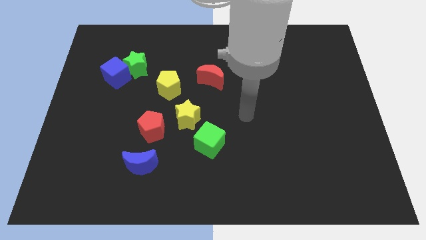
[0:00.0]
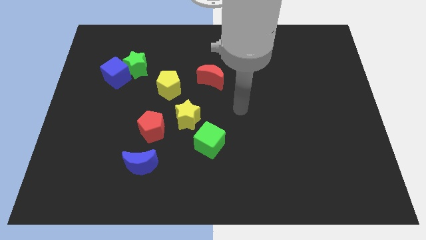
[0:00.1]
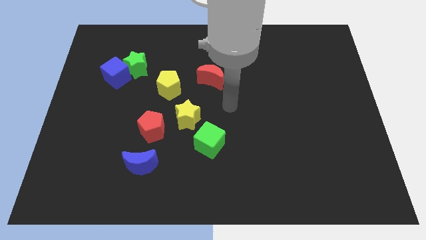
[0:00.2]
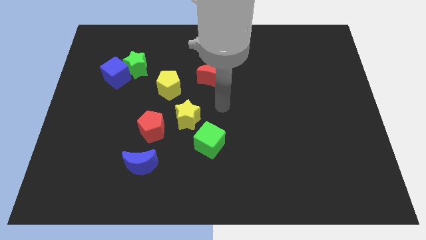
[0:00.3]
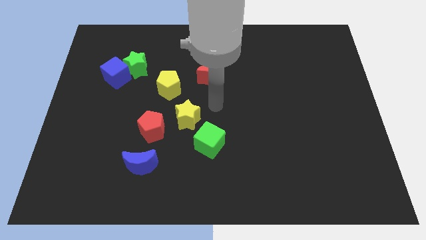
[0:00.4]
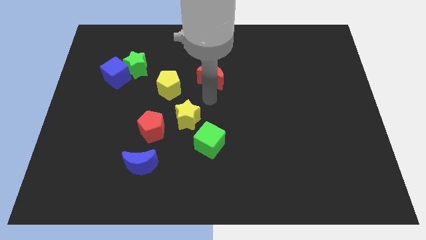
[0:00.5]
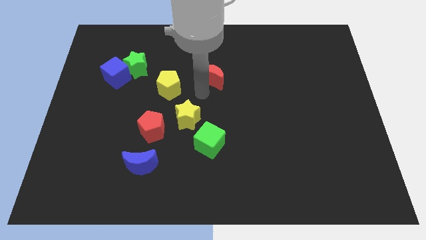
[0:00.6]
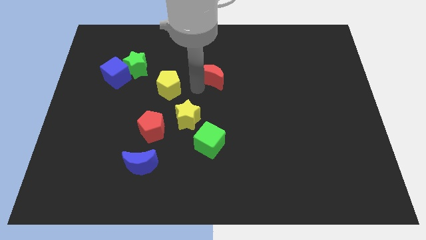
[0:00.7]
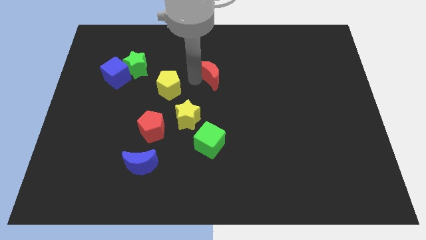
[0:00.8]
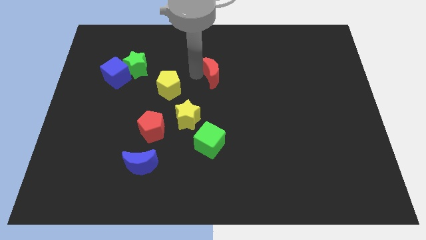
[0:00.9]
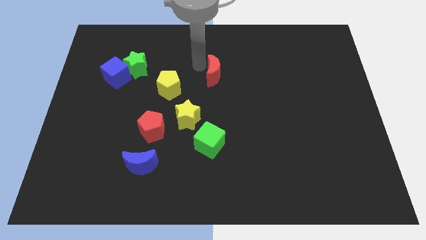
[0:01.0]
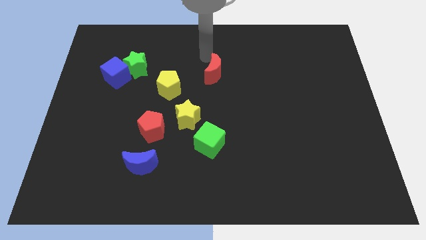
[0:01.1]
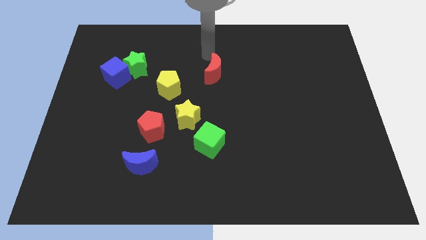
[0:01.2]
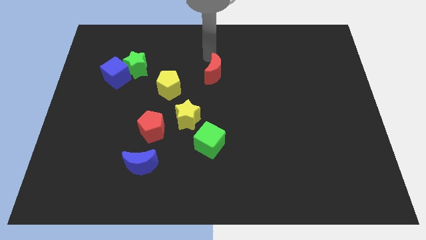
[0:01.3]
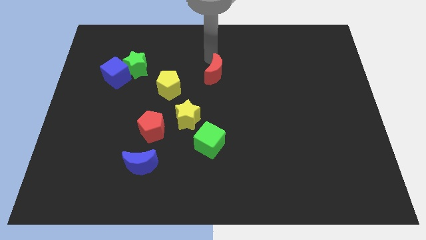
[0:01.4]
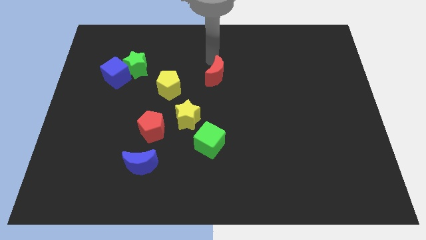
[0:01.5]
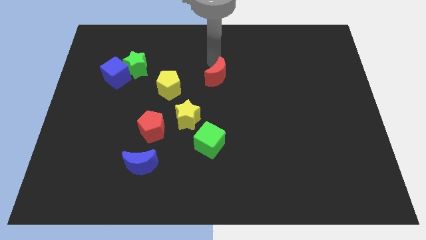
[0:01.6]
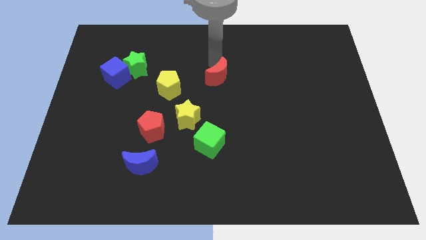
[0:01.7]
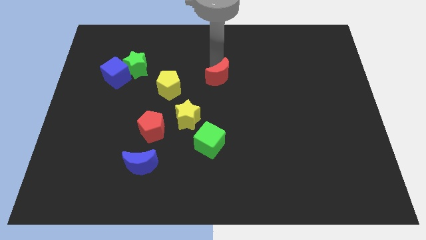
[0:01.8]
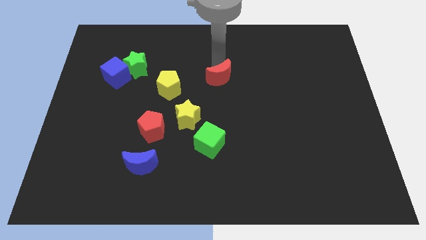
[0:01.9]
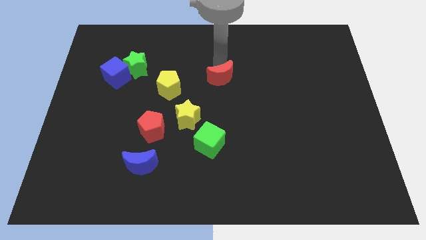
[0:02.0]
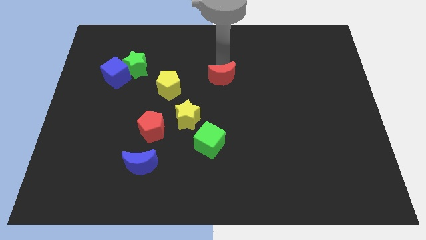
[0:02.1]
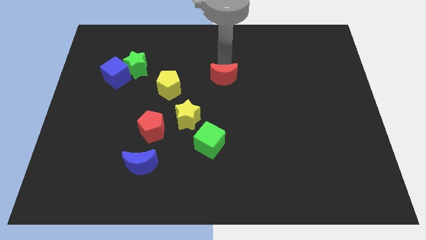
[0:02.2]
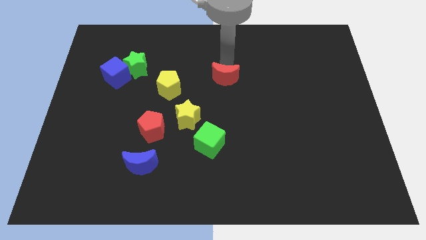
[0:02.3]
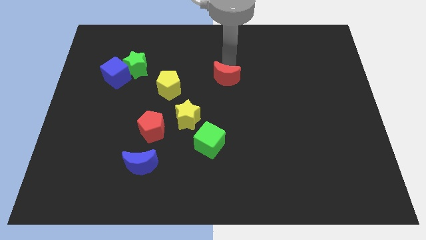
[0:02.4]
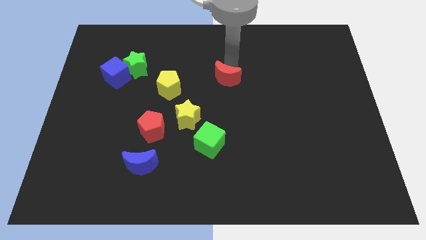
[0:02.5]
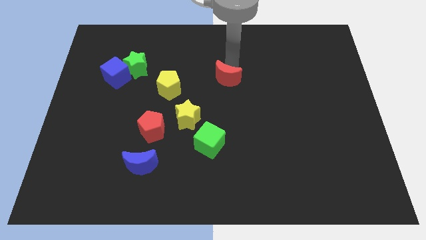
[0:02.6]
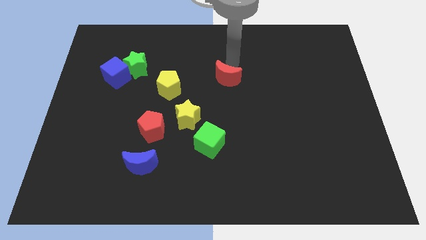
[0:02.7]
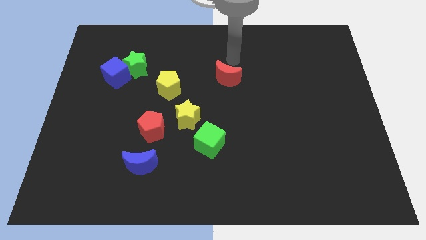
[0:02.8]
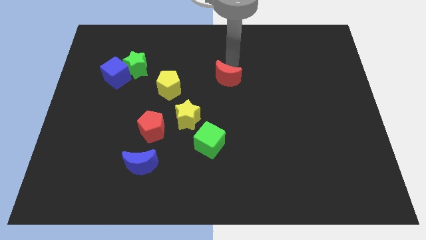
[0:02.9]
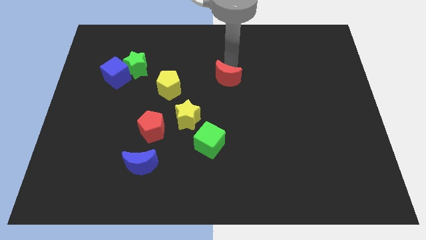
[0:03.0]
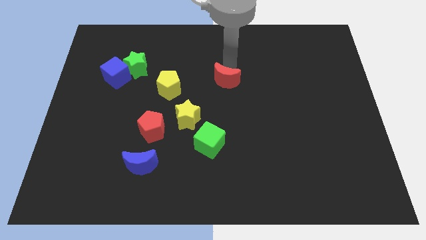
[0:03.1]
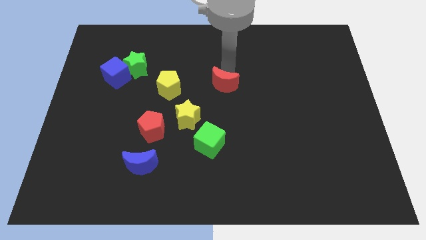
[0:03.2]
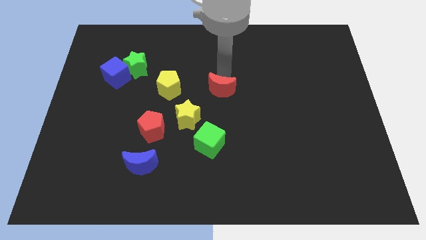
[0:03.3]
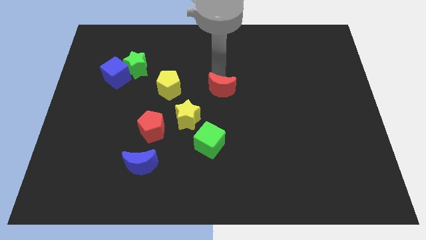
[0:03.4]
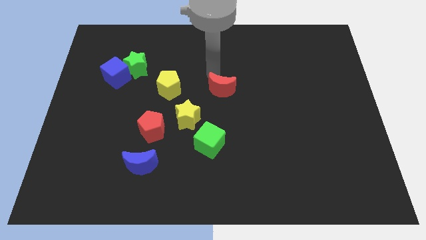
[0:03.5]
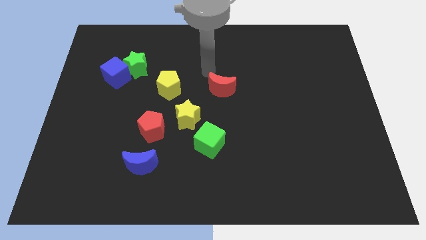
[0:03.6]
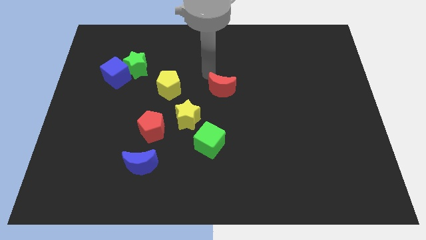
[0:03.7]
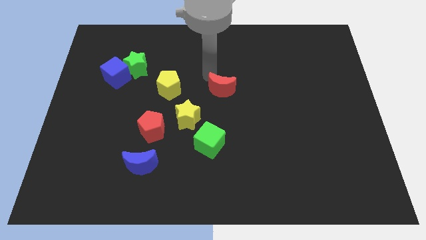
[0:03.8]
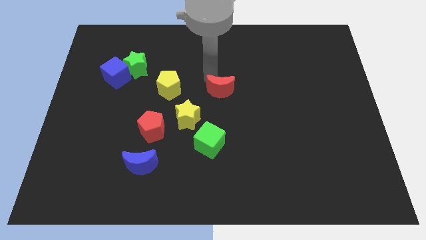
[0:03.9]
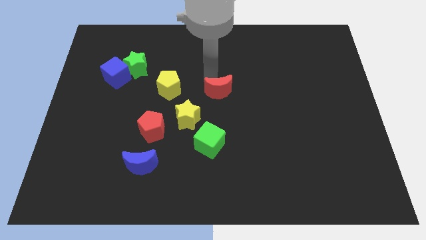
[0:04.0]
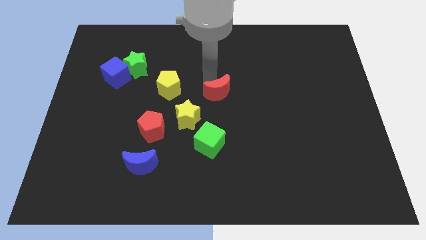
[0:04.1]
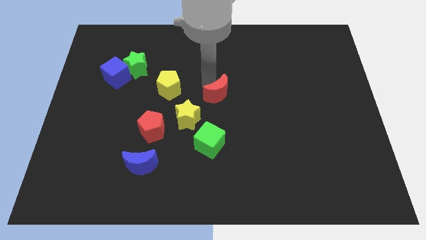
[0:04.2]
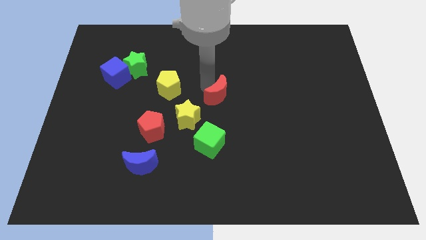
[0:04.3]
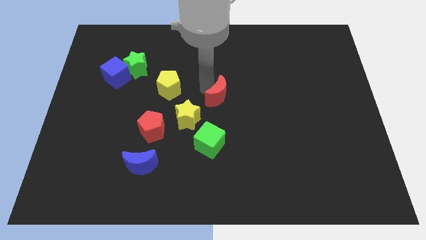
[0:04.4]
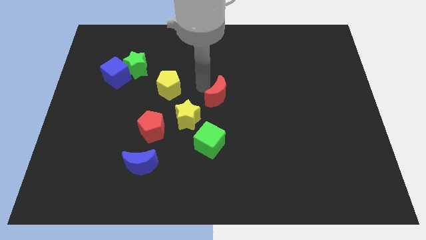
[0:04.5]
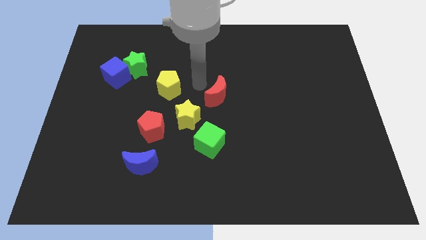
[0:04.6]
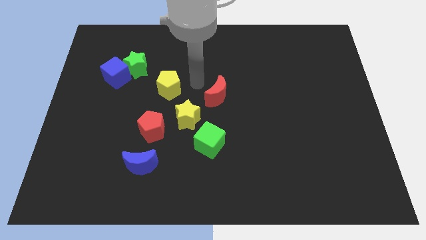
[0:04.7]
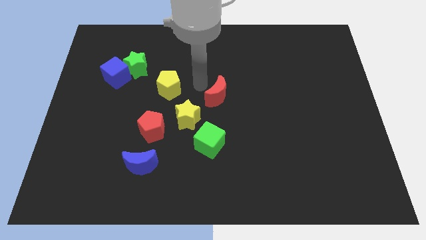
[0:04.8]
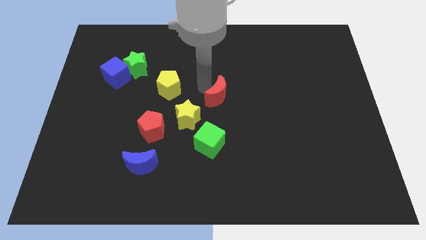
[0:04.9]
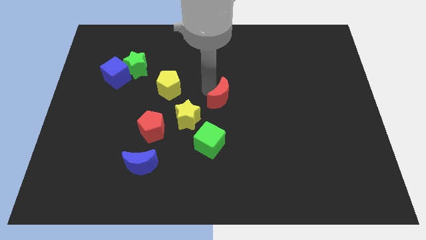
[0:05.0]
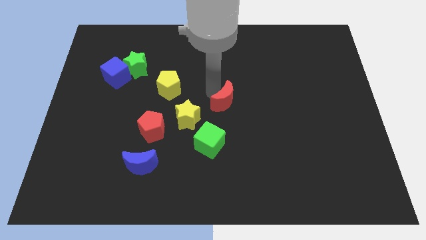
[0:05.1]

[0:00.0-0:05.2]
move the red moon a bit diagonally downwards and right

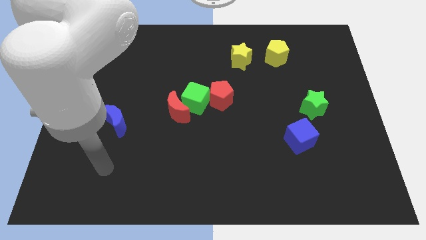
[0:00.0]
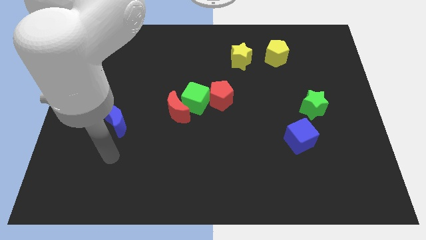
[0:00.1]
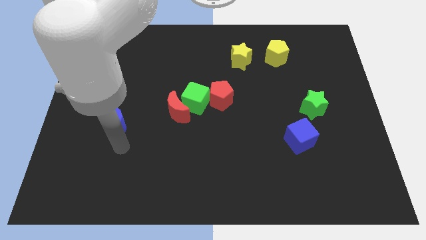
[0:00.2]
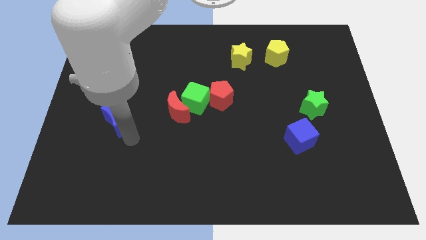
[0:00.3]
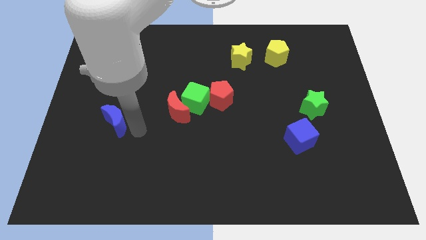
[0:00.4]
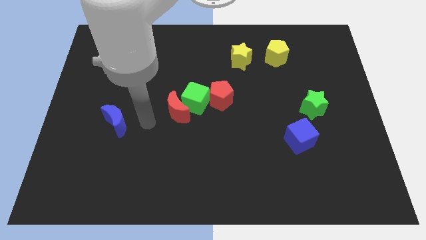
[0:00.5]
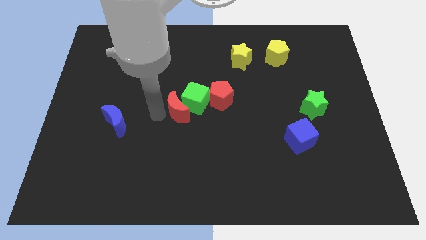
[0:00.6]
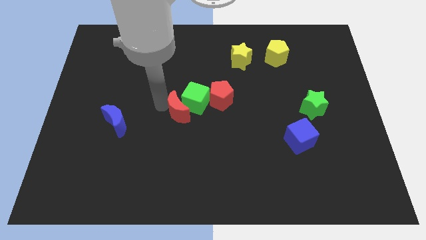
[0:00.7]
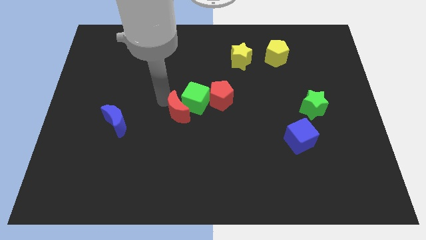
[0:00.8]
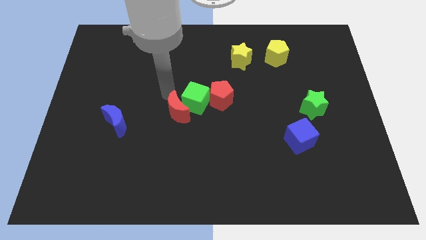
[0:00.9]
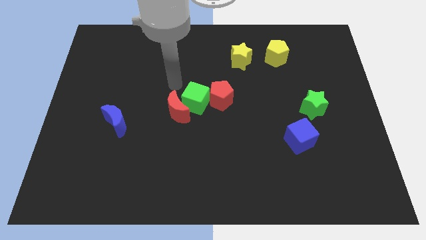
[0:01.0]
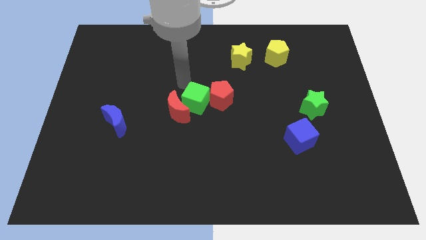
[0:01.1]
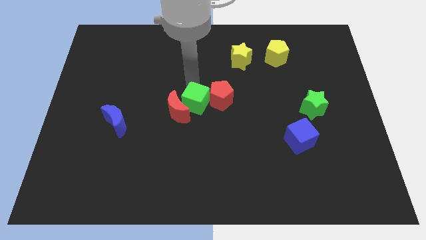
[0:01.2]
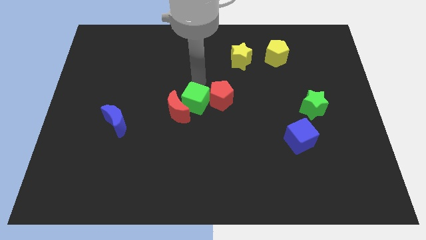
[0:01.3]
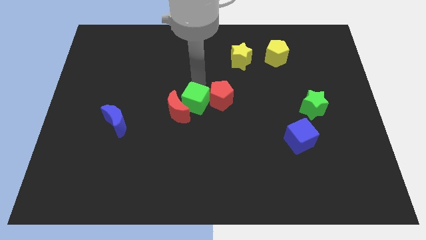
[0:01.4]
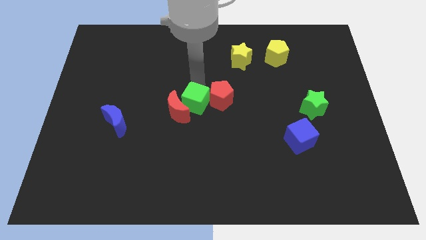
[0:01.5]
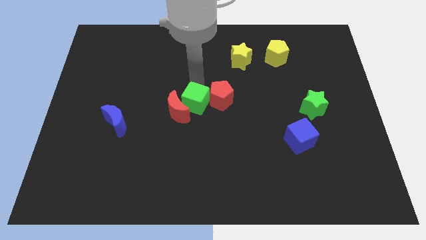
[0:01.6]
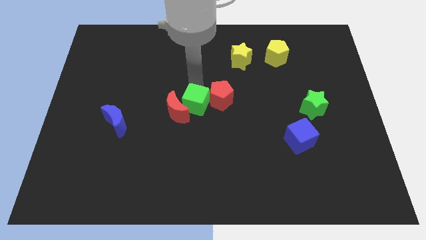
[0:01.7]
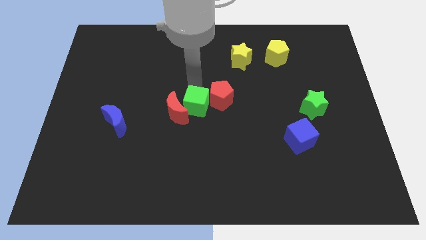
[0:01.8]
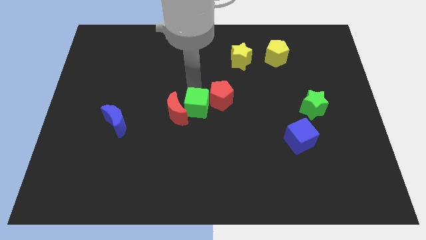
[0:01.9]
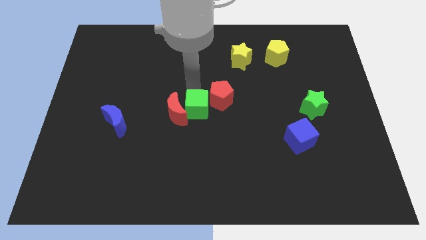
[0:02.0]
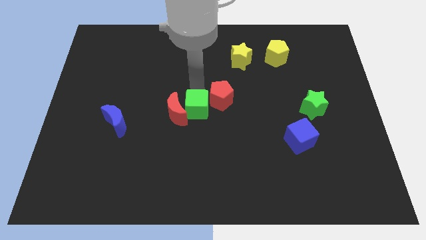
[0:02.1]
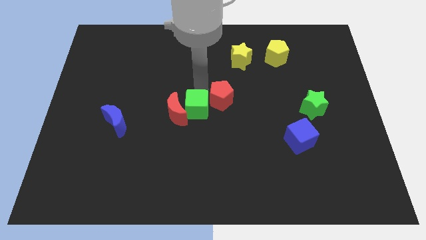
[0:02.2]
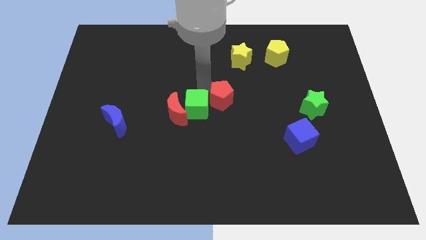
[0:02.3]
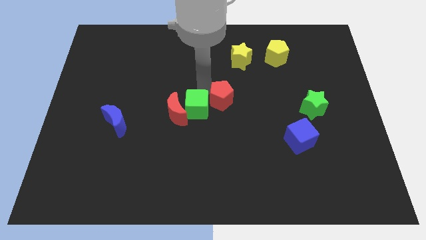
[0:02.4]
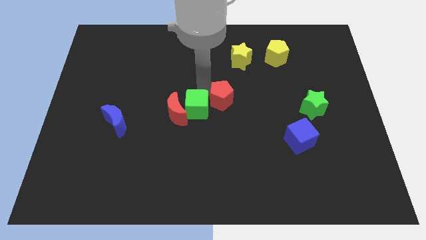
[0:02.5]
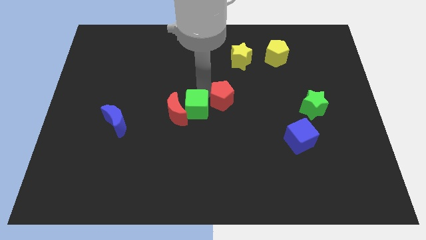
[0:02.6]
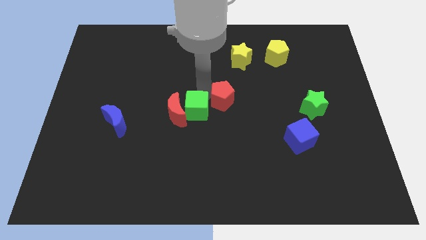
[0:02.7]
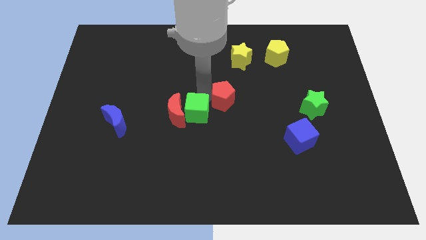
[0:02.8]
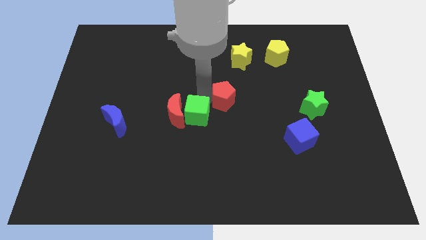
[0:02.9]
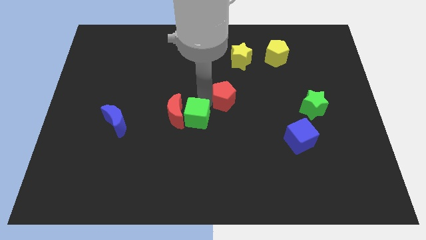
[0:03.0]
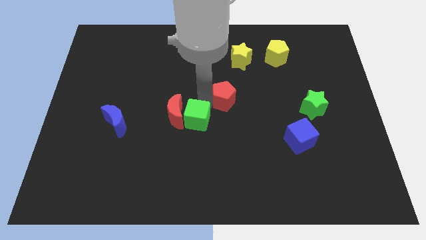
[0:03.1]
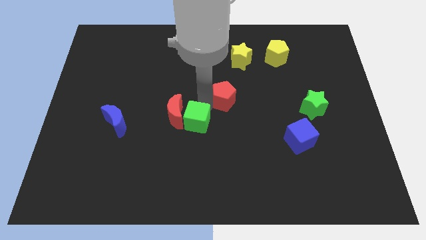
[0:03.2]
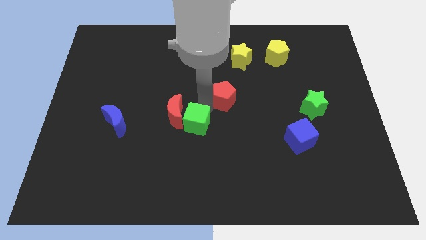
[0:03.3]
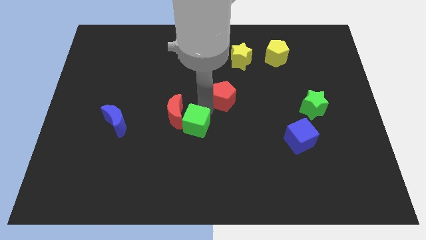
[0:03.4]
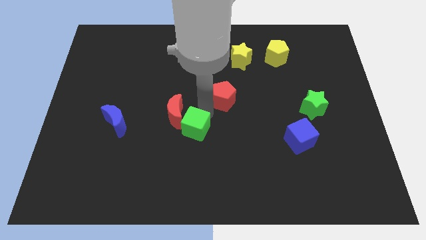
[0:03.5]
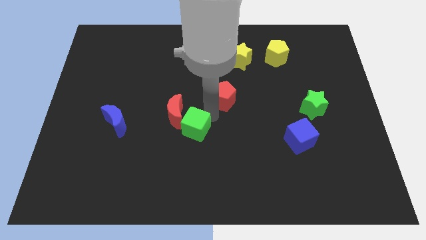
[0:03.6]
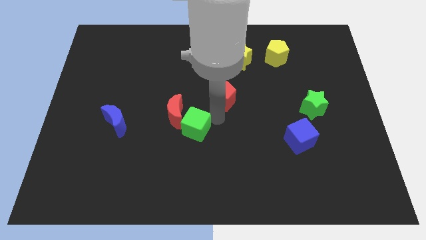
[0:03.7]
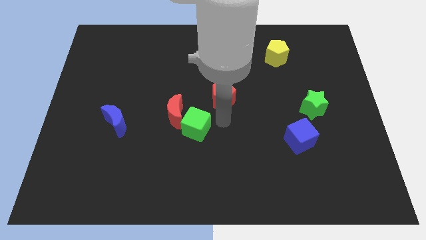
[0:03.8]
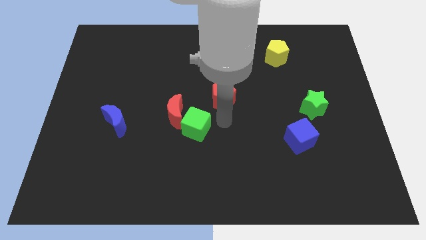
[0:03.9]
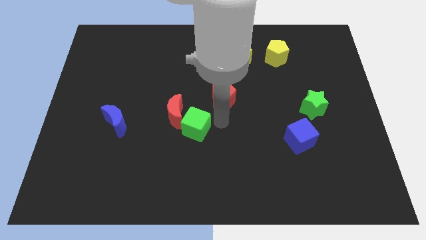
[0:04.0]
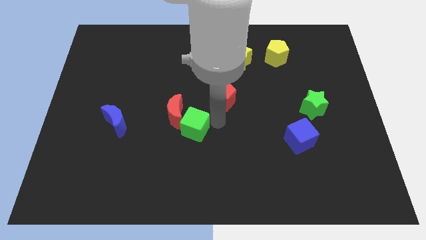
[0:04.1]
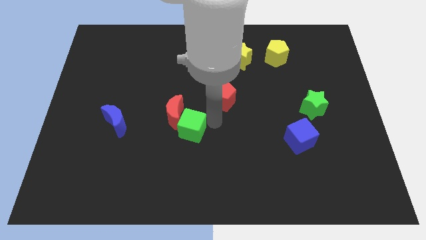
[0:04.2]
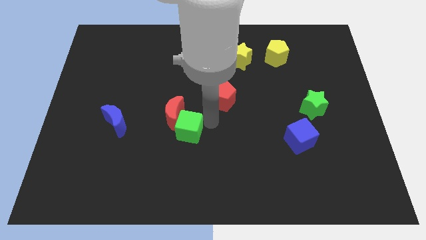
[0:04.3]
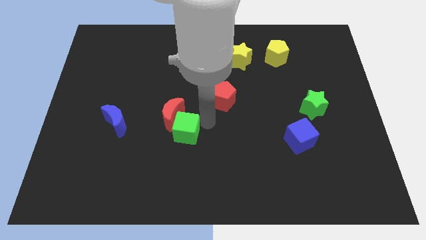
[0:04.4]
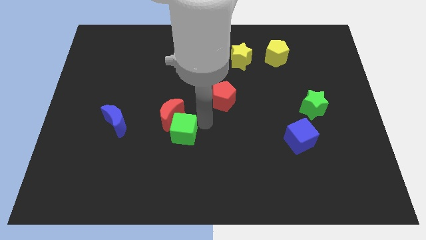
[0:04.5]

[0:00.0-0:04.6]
slide the green cube down and to the left slightly
